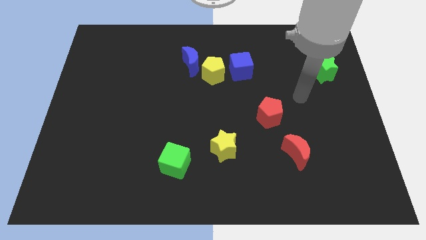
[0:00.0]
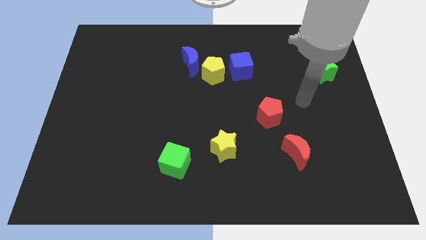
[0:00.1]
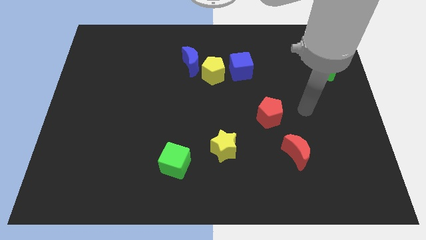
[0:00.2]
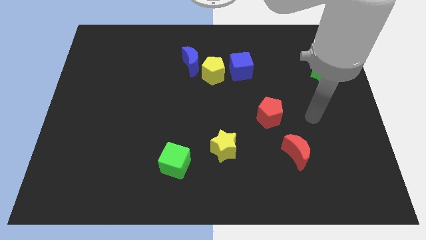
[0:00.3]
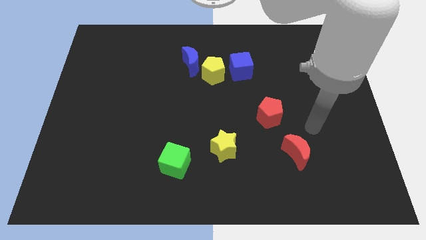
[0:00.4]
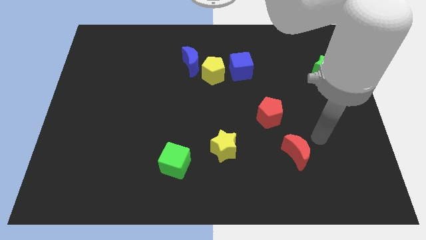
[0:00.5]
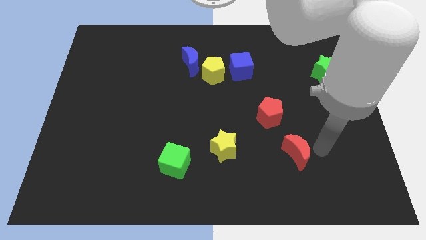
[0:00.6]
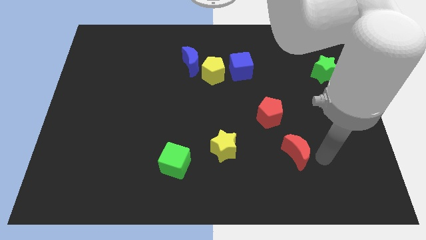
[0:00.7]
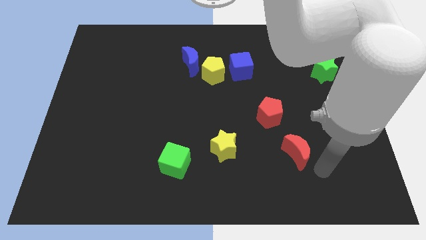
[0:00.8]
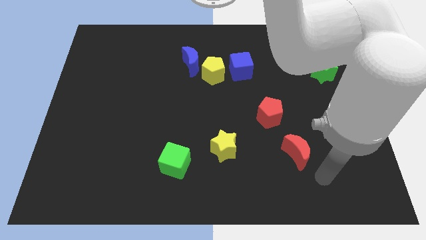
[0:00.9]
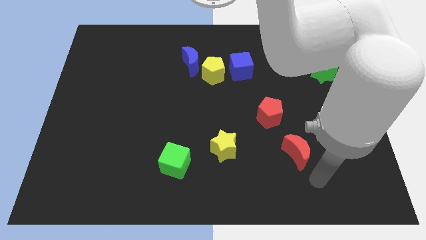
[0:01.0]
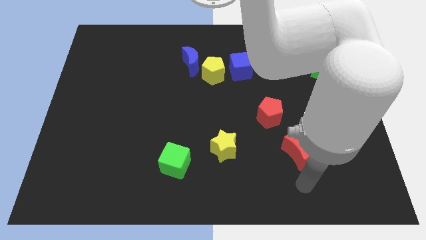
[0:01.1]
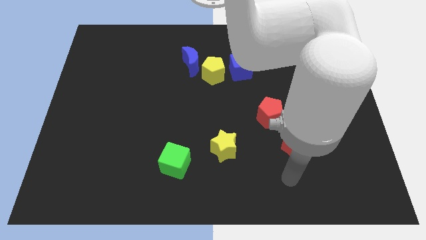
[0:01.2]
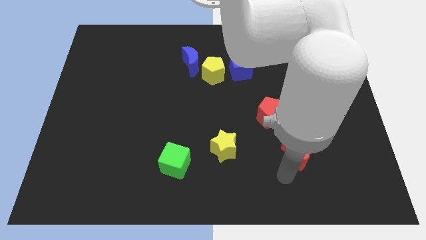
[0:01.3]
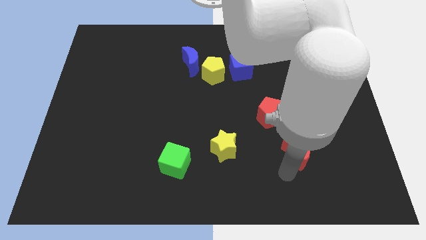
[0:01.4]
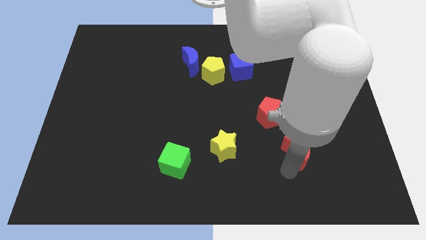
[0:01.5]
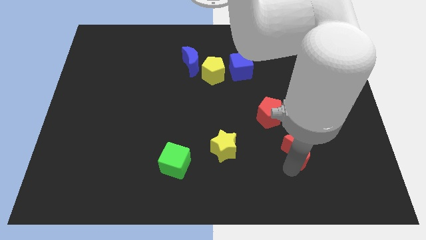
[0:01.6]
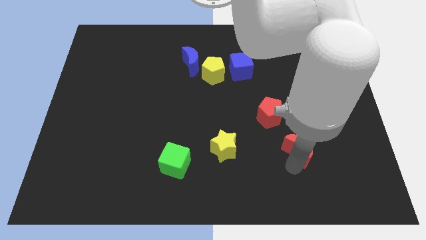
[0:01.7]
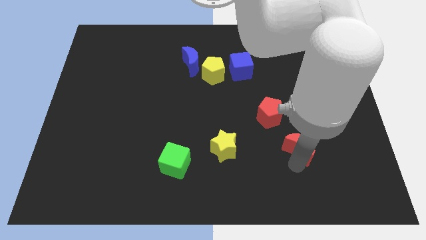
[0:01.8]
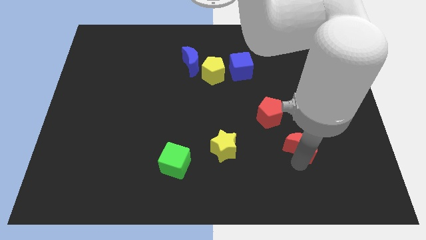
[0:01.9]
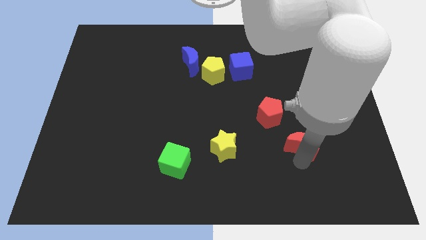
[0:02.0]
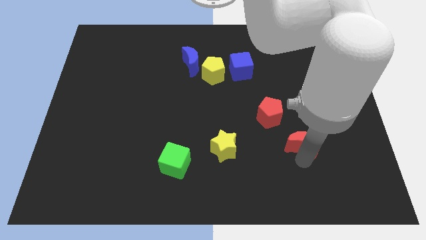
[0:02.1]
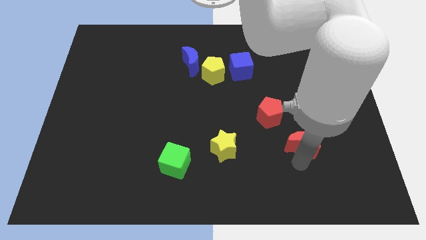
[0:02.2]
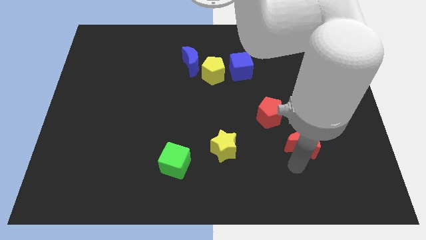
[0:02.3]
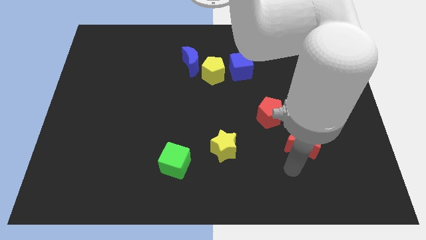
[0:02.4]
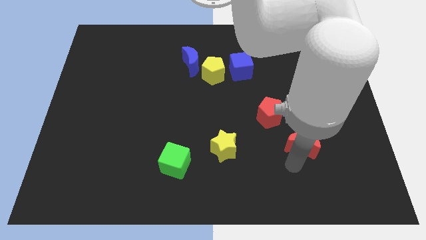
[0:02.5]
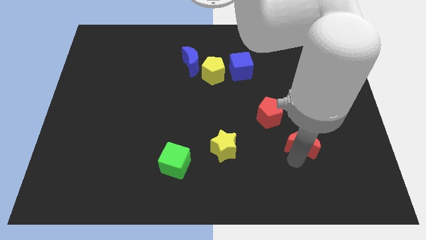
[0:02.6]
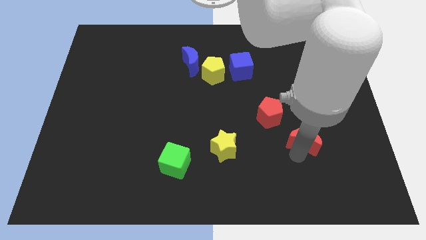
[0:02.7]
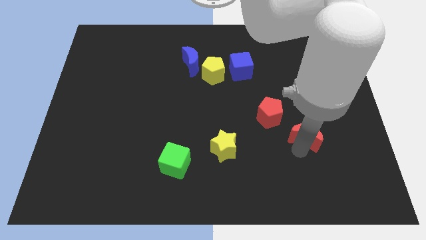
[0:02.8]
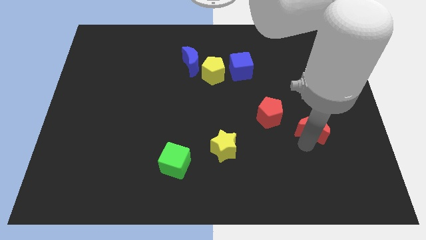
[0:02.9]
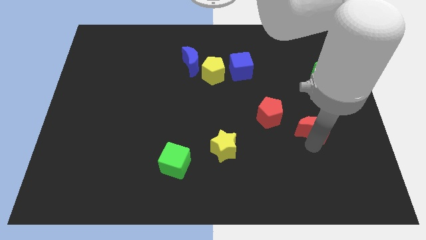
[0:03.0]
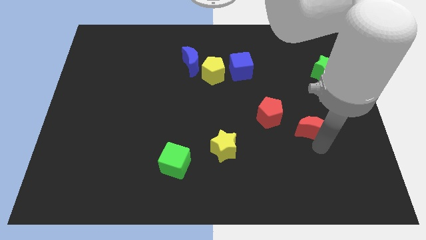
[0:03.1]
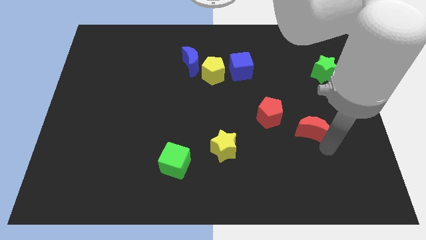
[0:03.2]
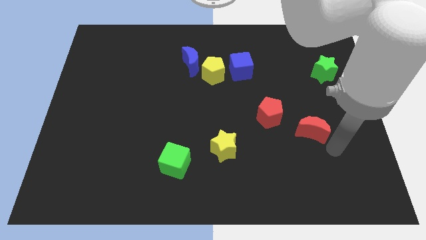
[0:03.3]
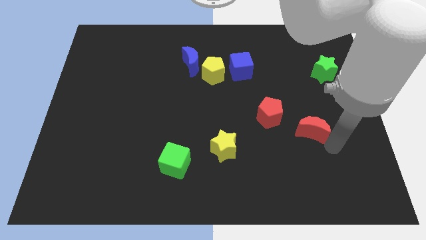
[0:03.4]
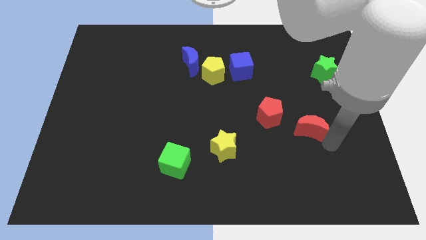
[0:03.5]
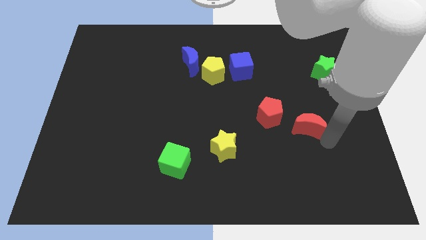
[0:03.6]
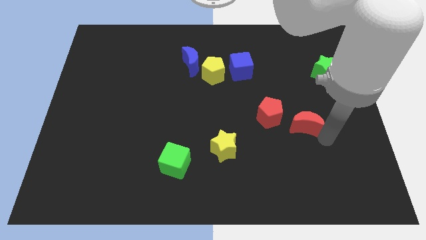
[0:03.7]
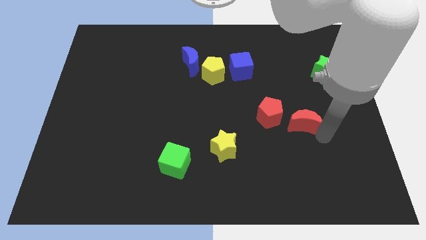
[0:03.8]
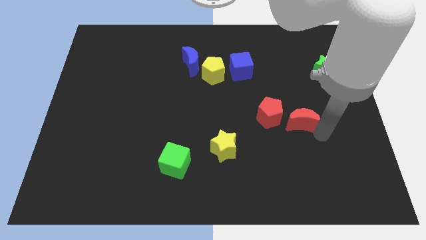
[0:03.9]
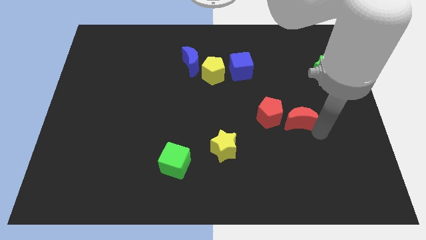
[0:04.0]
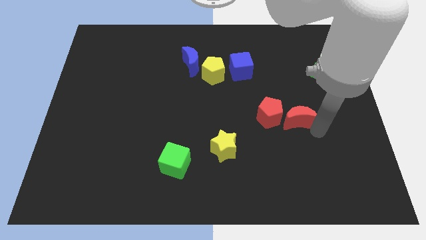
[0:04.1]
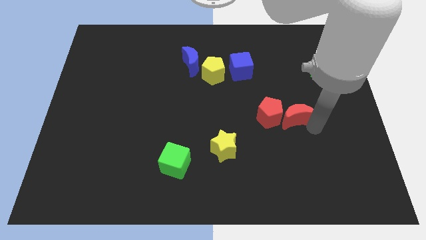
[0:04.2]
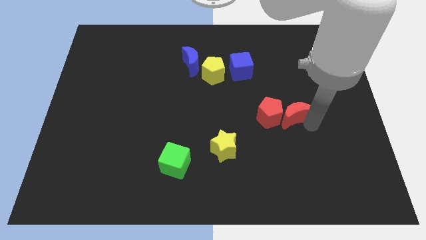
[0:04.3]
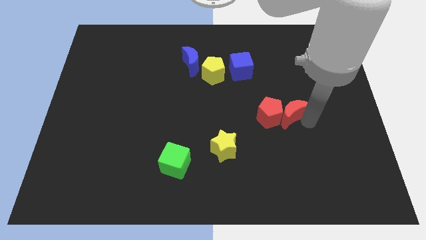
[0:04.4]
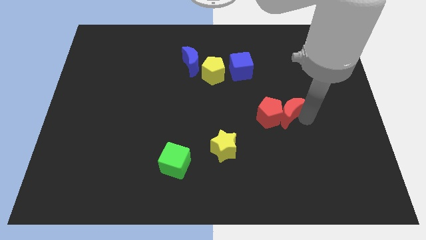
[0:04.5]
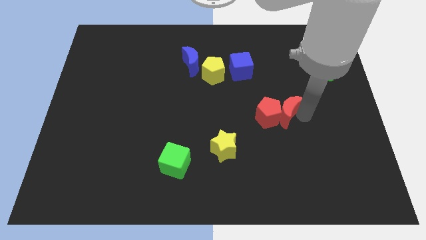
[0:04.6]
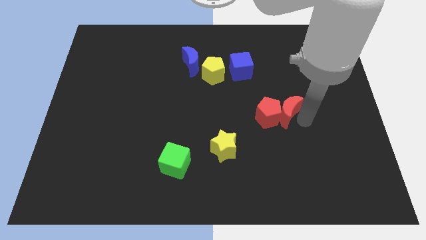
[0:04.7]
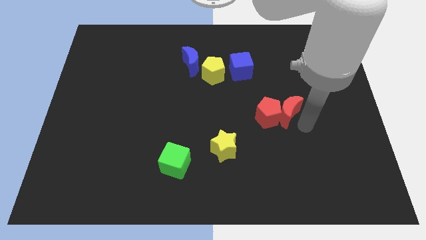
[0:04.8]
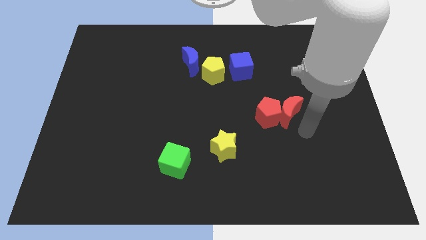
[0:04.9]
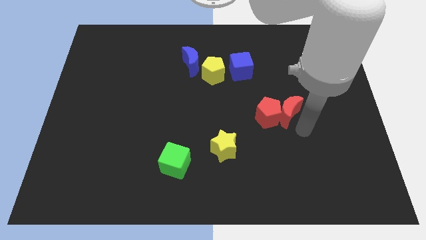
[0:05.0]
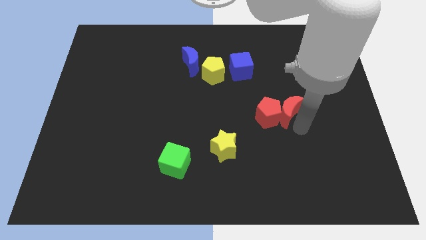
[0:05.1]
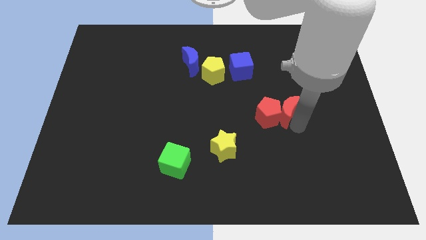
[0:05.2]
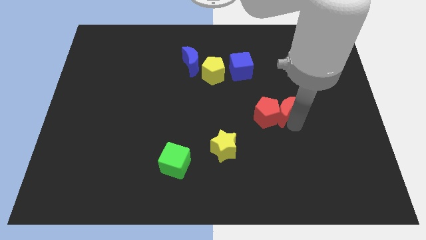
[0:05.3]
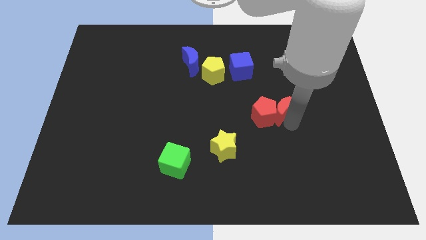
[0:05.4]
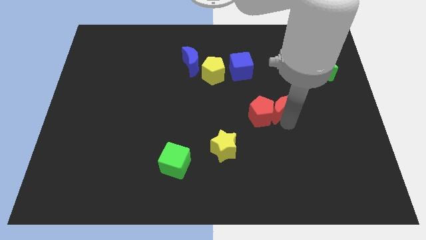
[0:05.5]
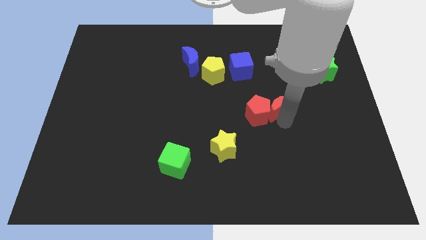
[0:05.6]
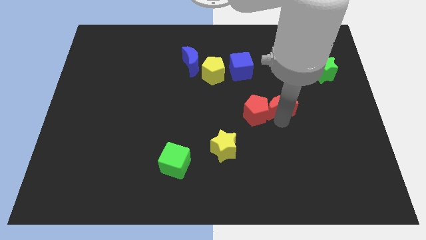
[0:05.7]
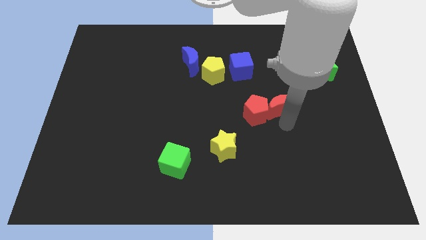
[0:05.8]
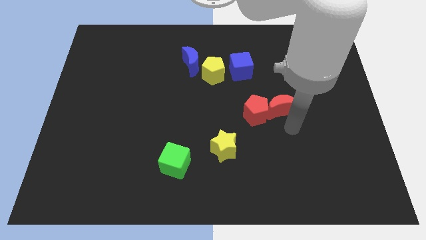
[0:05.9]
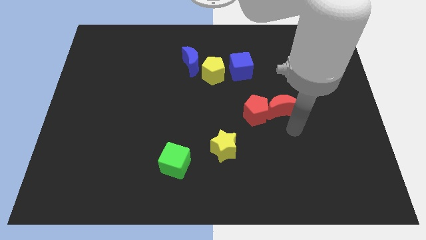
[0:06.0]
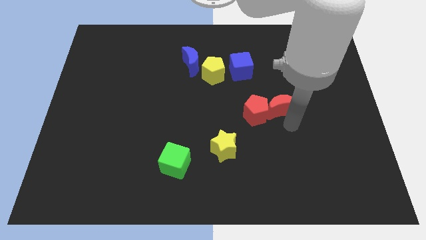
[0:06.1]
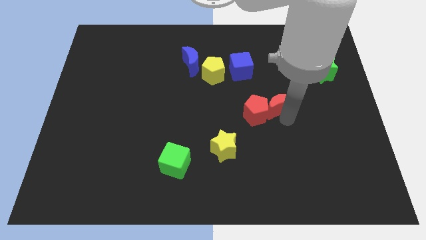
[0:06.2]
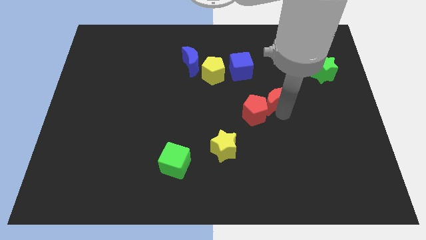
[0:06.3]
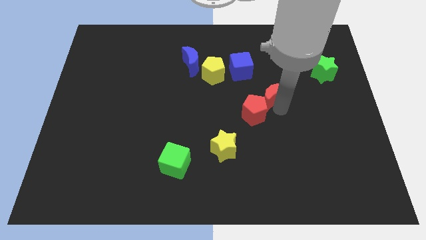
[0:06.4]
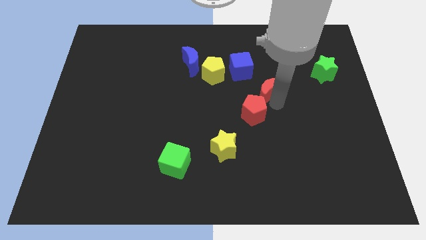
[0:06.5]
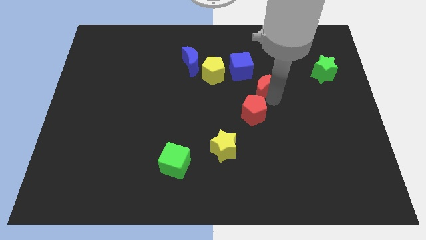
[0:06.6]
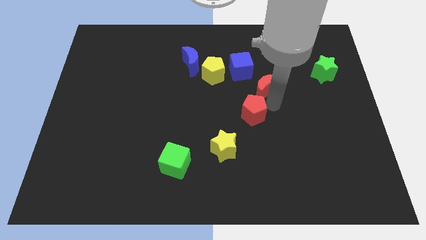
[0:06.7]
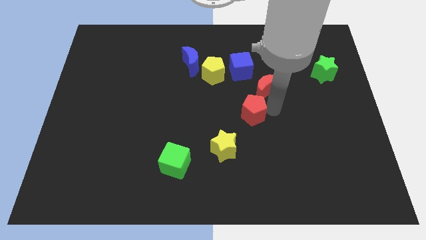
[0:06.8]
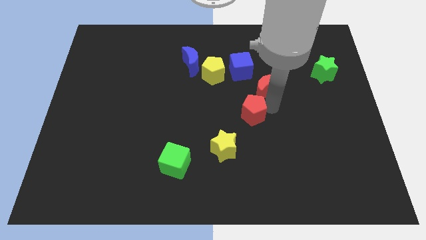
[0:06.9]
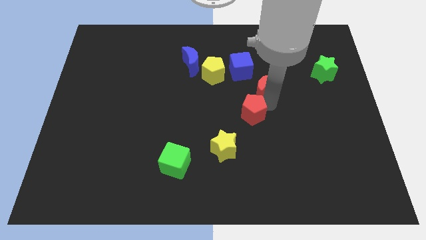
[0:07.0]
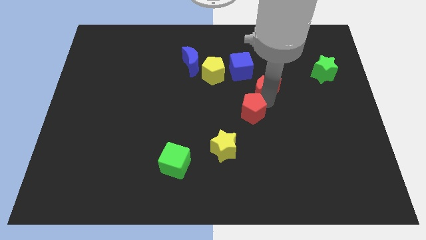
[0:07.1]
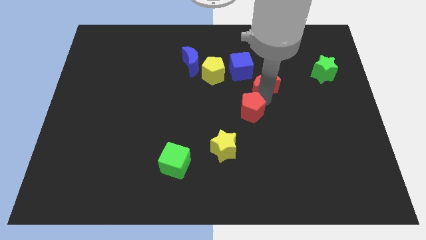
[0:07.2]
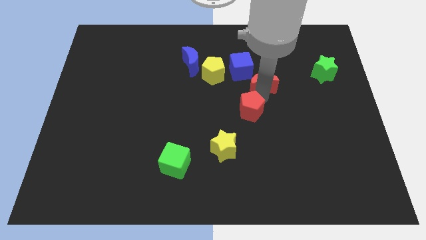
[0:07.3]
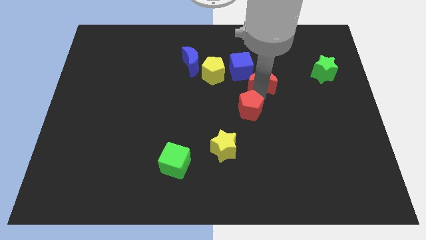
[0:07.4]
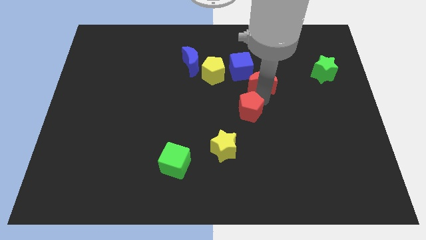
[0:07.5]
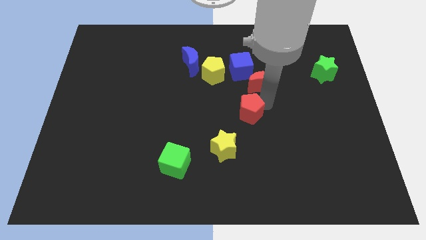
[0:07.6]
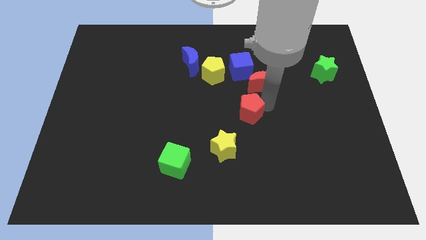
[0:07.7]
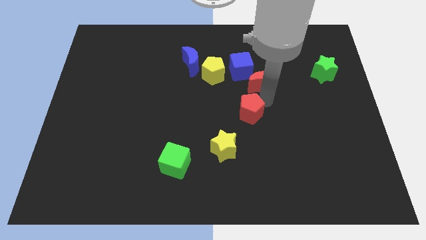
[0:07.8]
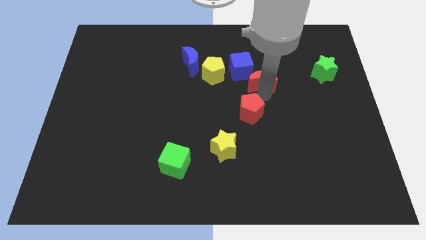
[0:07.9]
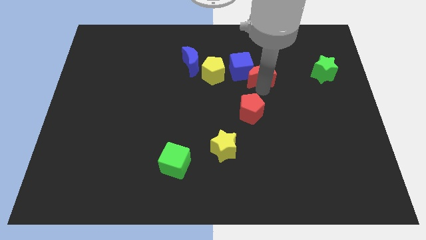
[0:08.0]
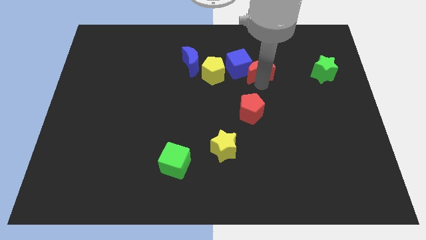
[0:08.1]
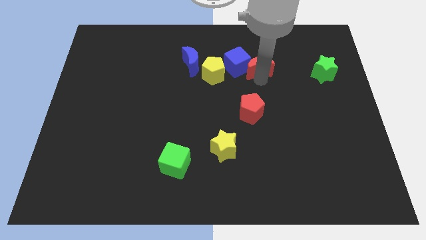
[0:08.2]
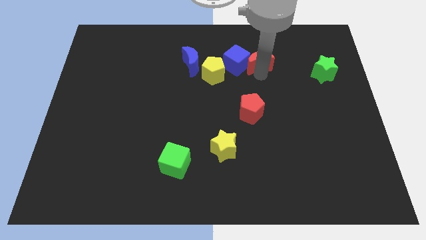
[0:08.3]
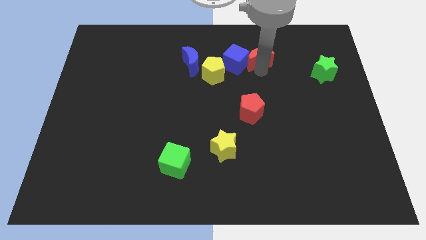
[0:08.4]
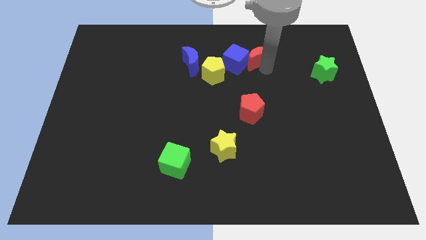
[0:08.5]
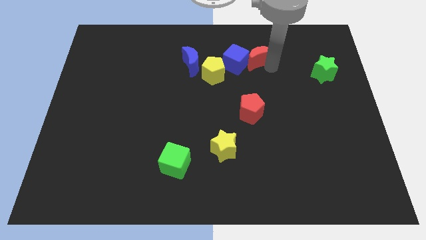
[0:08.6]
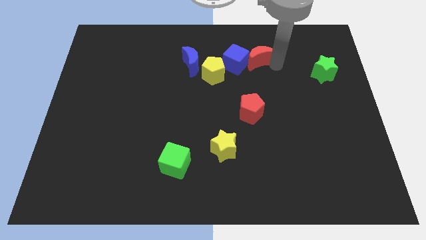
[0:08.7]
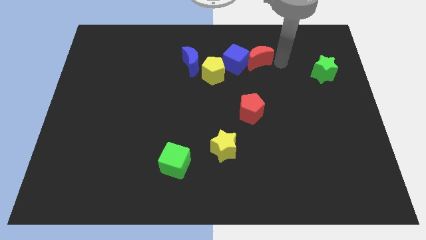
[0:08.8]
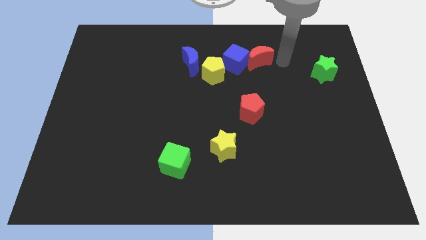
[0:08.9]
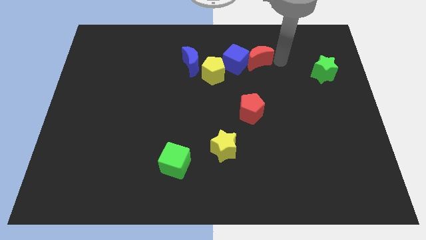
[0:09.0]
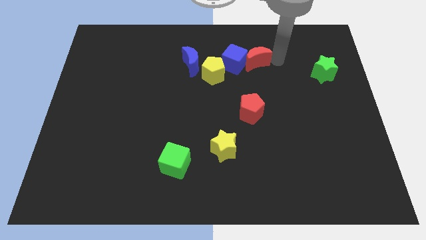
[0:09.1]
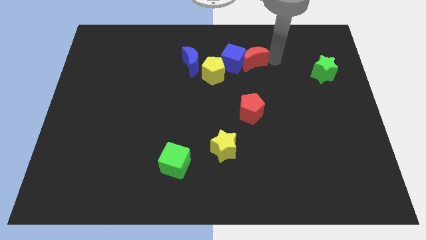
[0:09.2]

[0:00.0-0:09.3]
slide the red moon to the top right of the yellow pentagon
